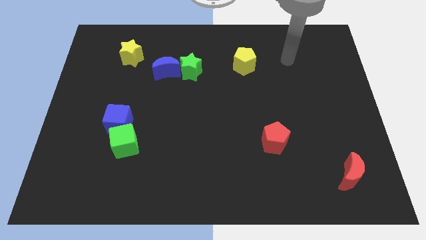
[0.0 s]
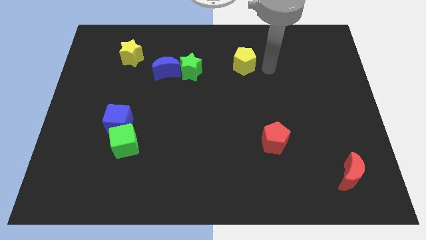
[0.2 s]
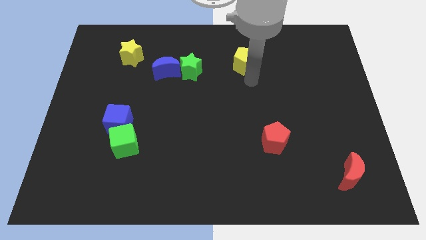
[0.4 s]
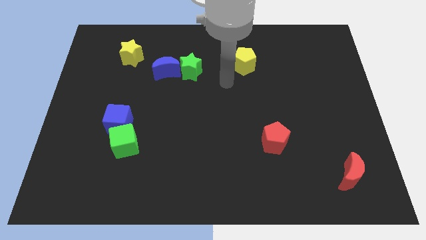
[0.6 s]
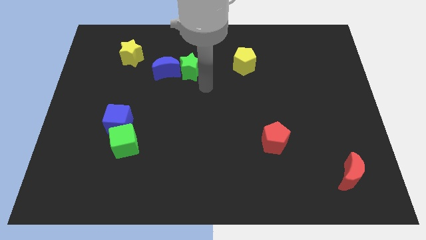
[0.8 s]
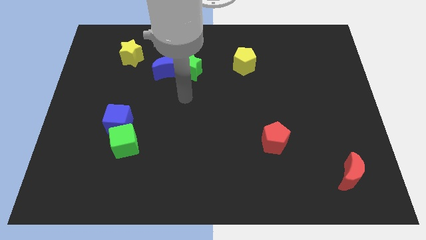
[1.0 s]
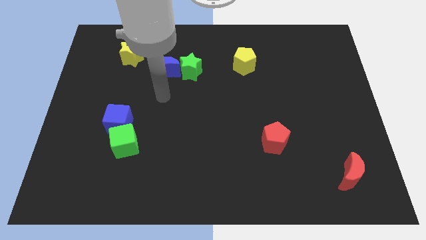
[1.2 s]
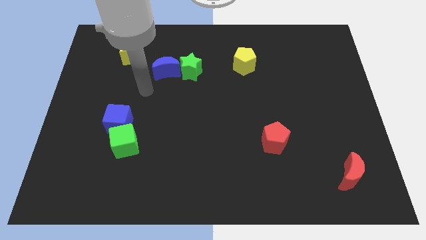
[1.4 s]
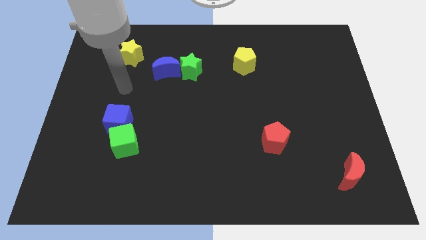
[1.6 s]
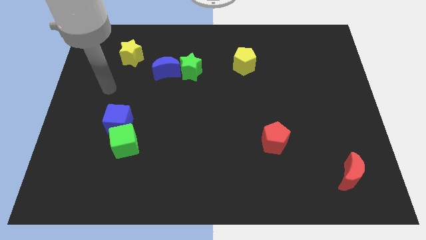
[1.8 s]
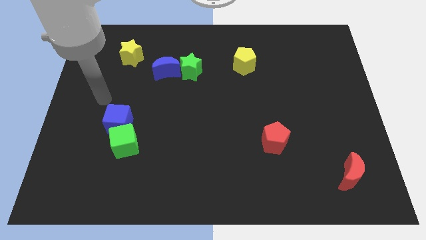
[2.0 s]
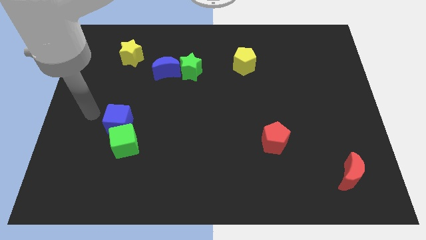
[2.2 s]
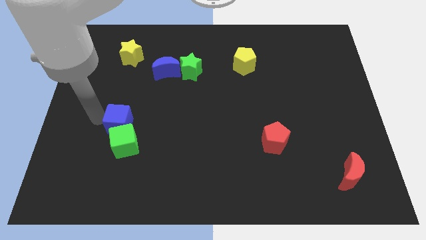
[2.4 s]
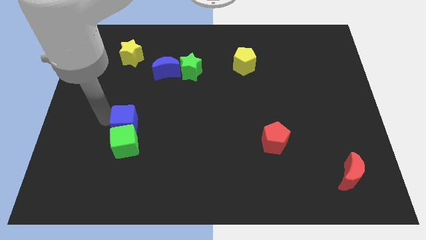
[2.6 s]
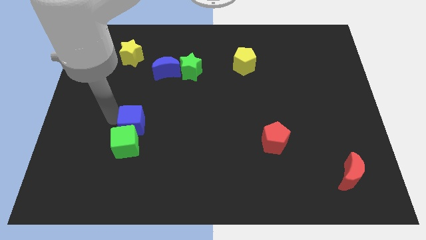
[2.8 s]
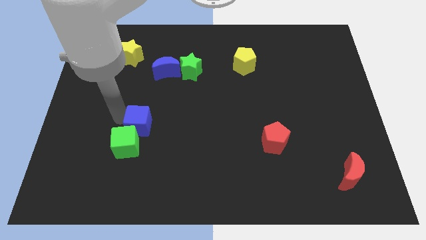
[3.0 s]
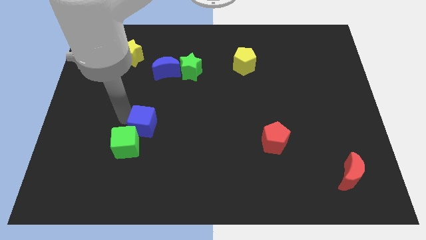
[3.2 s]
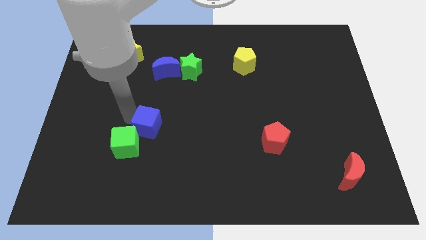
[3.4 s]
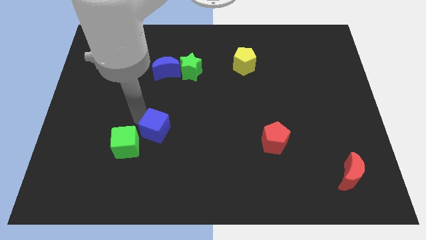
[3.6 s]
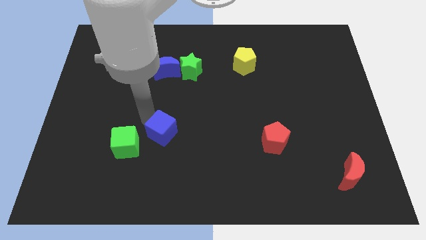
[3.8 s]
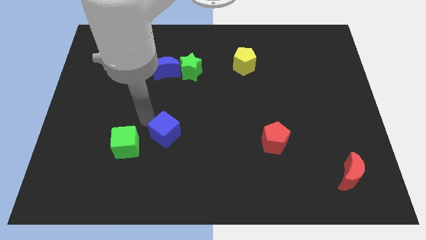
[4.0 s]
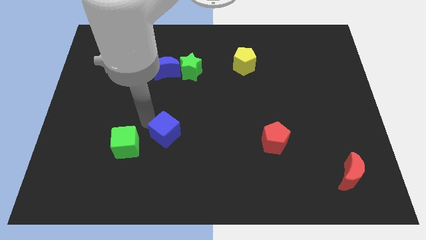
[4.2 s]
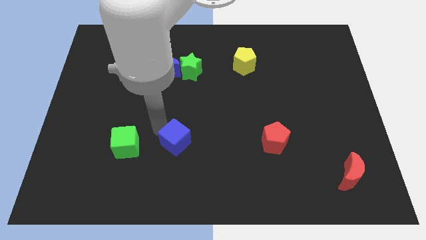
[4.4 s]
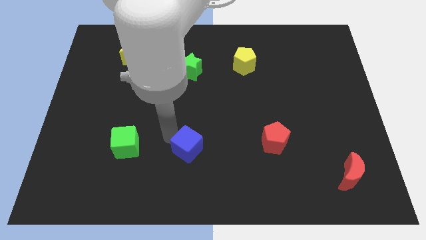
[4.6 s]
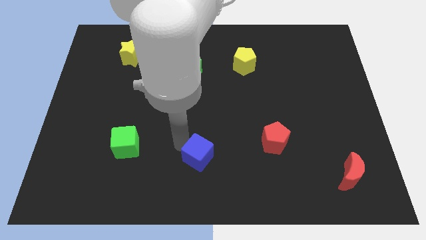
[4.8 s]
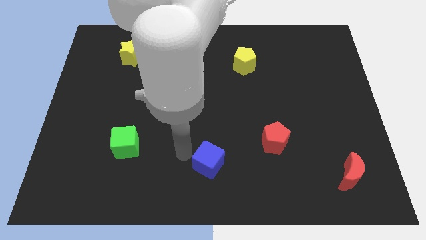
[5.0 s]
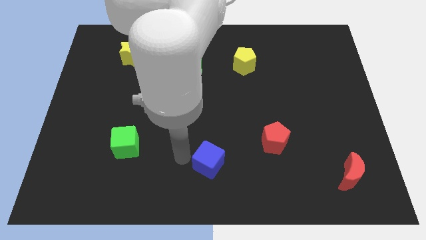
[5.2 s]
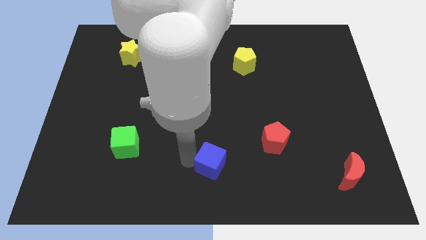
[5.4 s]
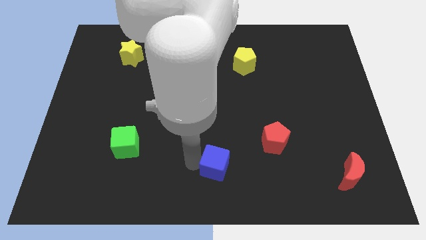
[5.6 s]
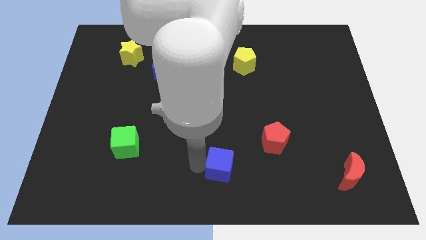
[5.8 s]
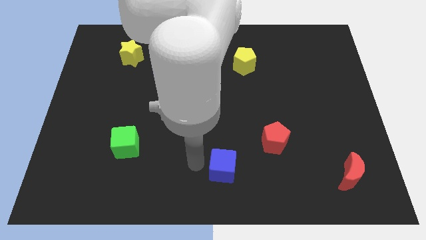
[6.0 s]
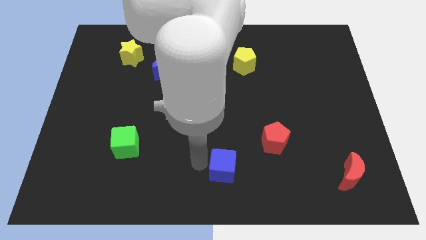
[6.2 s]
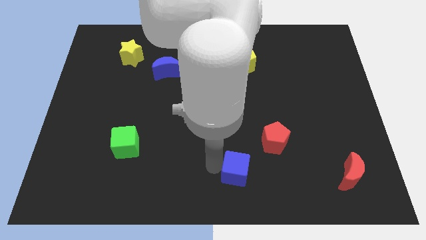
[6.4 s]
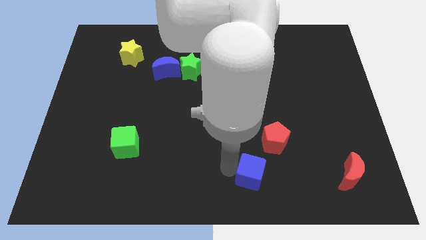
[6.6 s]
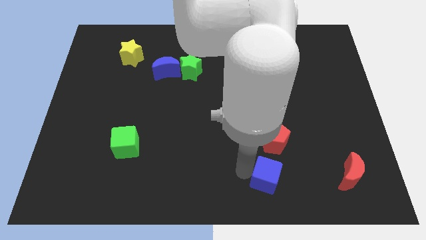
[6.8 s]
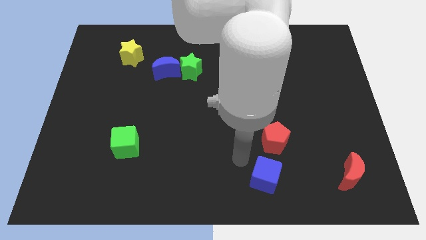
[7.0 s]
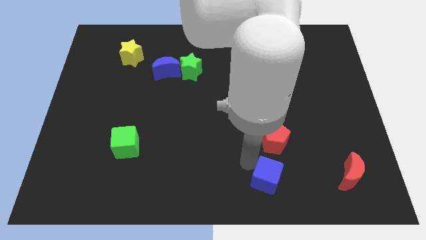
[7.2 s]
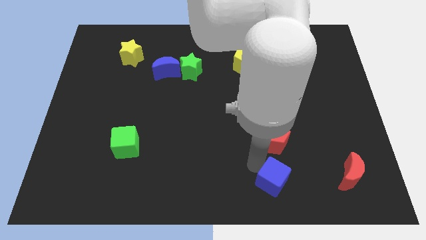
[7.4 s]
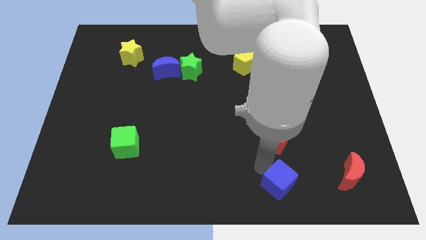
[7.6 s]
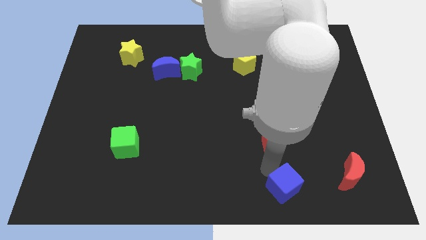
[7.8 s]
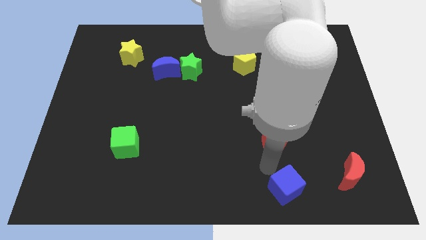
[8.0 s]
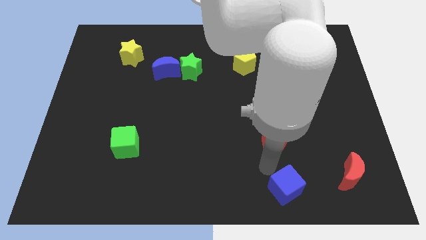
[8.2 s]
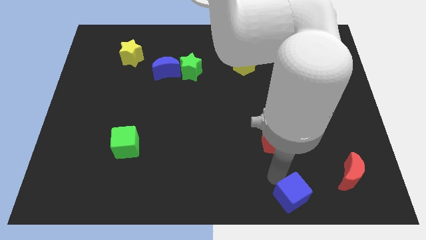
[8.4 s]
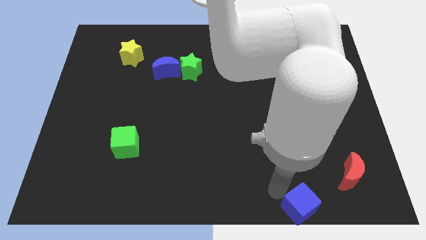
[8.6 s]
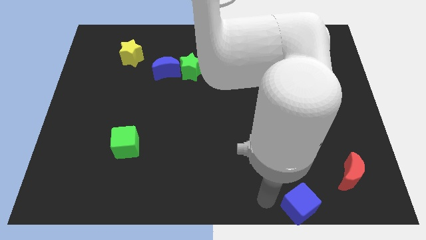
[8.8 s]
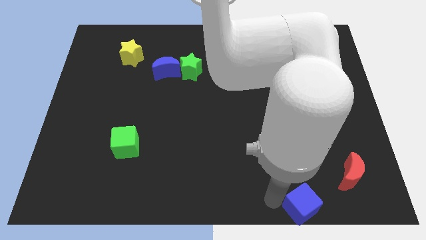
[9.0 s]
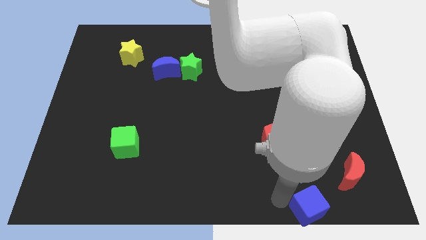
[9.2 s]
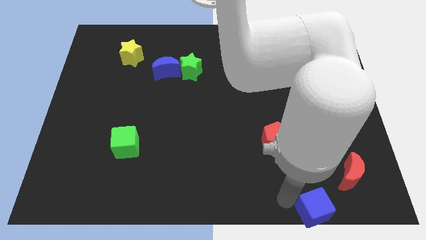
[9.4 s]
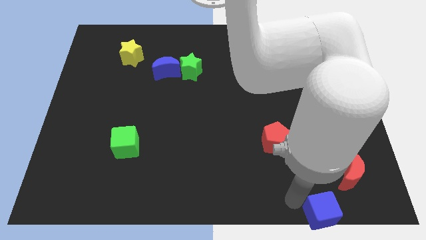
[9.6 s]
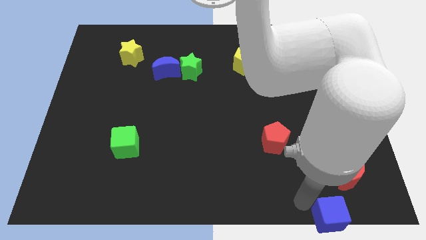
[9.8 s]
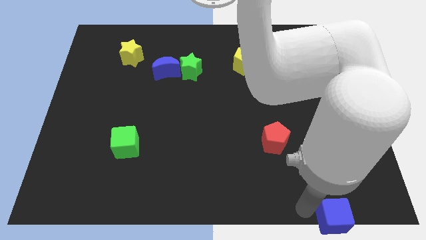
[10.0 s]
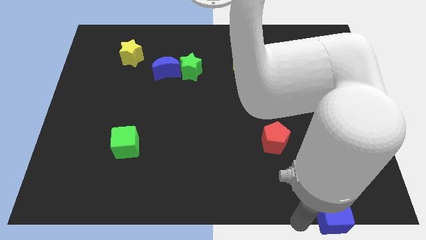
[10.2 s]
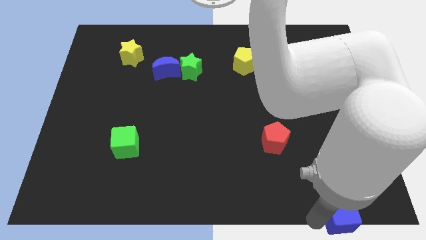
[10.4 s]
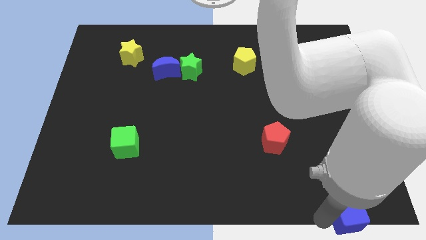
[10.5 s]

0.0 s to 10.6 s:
push the blue cube to the bottom right of the board
